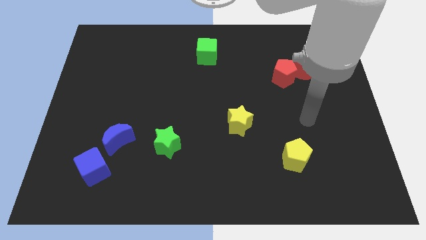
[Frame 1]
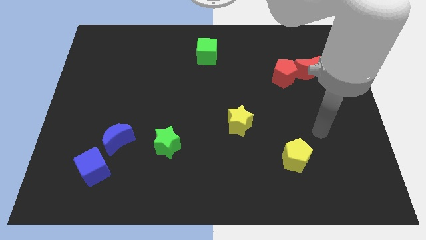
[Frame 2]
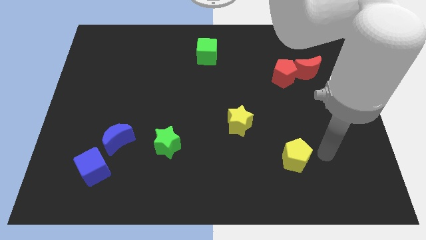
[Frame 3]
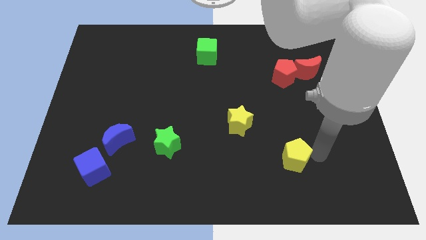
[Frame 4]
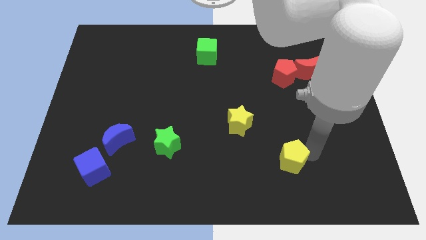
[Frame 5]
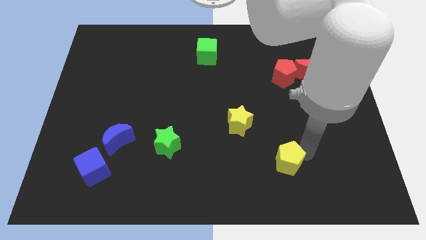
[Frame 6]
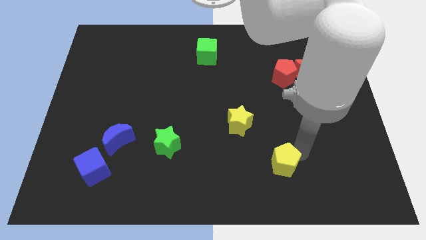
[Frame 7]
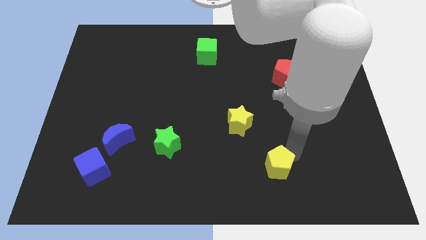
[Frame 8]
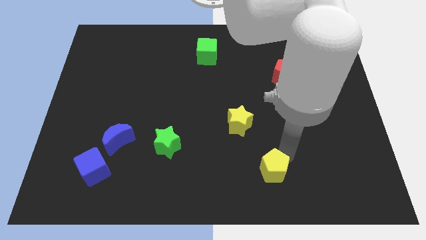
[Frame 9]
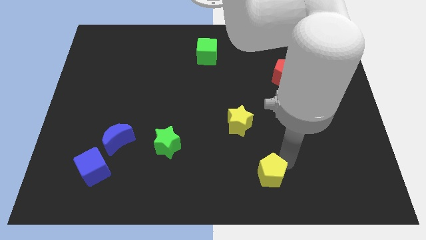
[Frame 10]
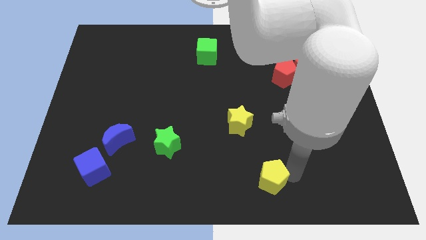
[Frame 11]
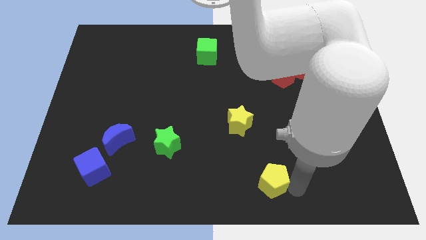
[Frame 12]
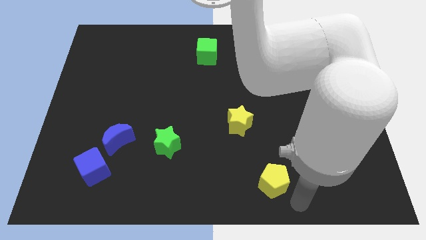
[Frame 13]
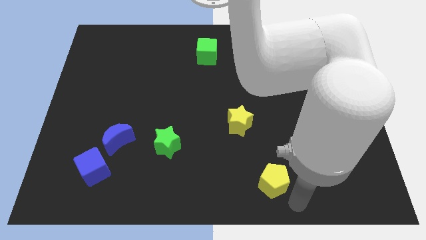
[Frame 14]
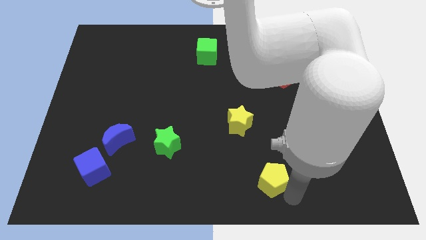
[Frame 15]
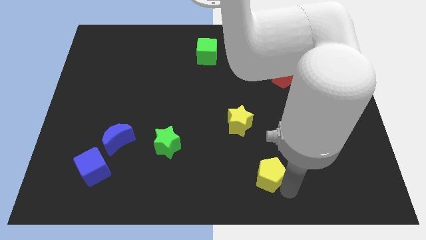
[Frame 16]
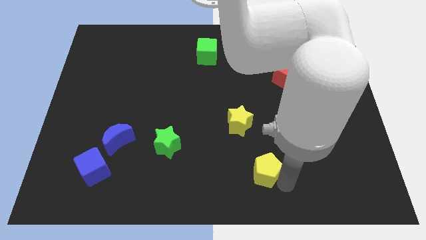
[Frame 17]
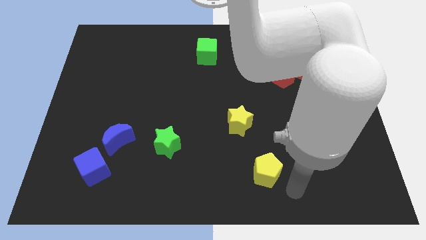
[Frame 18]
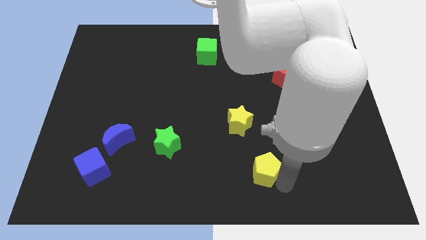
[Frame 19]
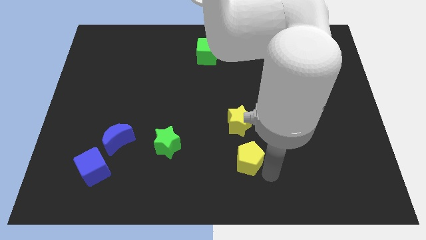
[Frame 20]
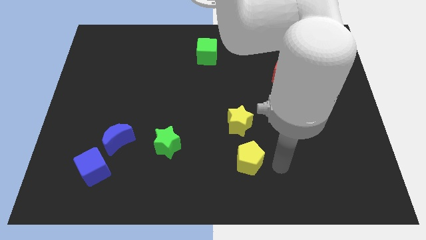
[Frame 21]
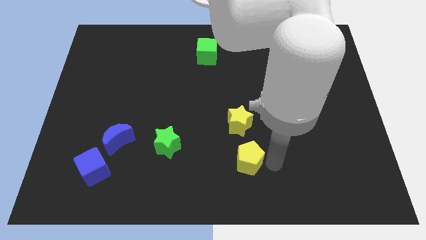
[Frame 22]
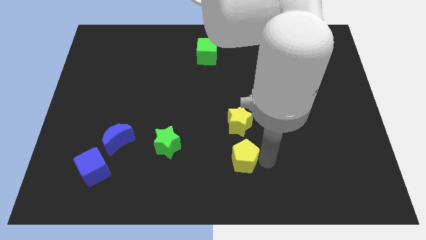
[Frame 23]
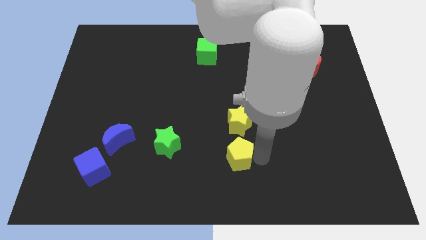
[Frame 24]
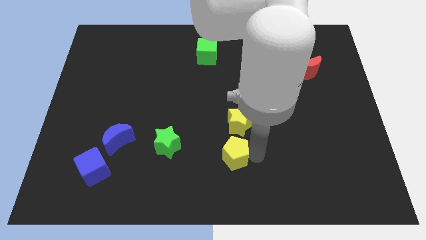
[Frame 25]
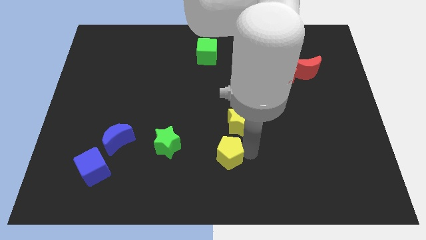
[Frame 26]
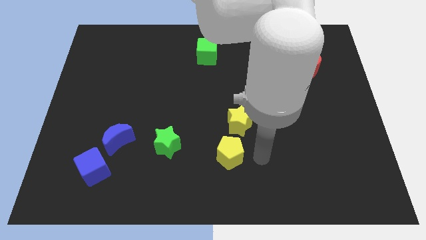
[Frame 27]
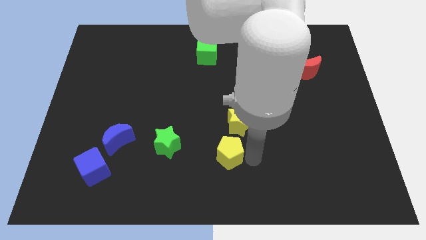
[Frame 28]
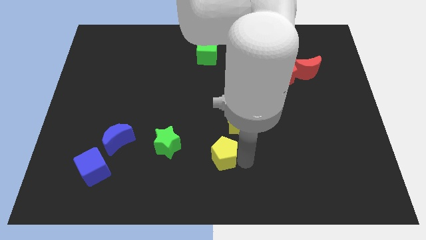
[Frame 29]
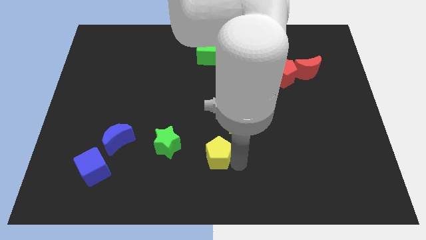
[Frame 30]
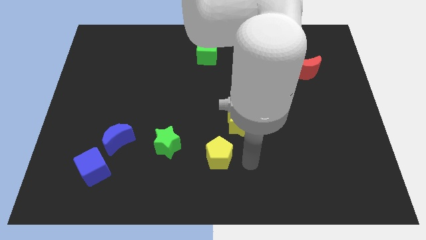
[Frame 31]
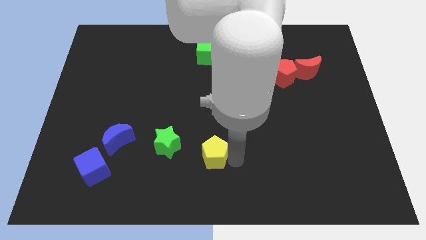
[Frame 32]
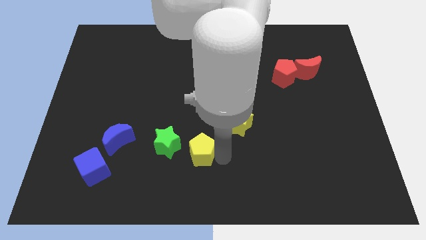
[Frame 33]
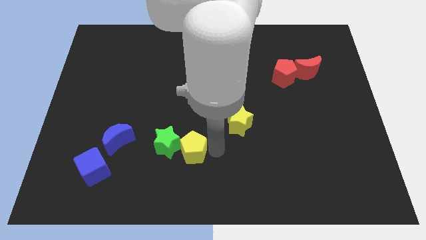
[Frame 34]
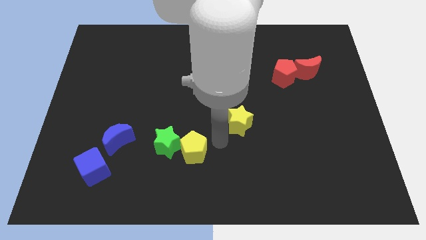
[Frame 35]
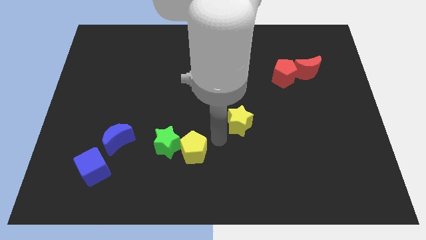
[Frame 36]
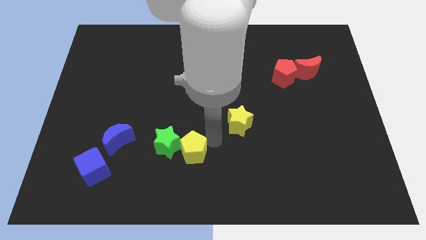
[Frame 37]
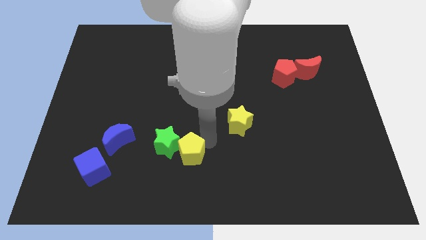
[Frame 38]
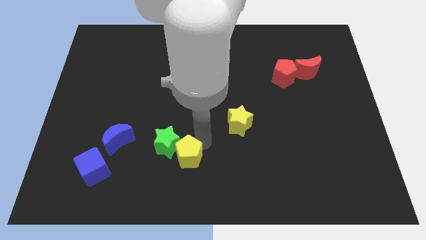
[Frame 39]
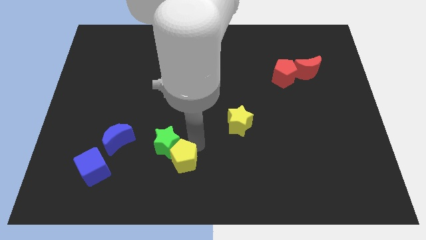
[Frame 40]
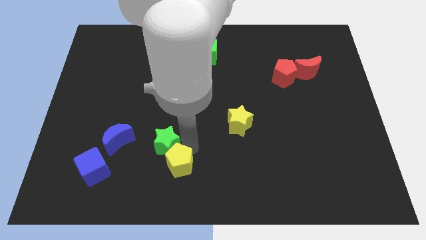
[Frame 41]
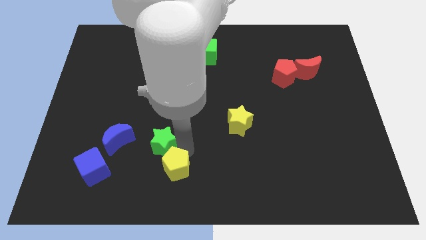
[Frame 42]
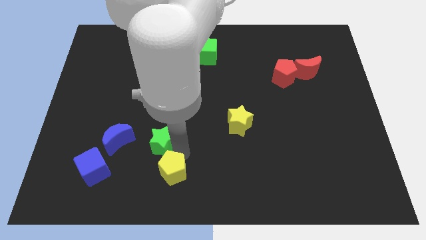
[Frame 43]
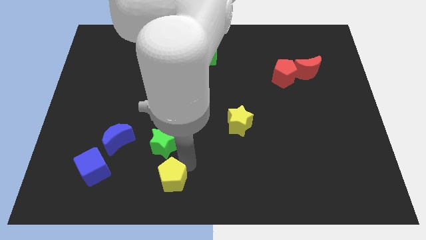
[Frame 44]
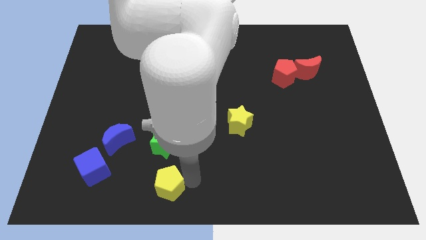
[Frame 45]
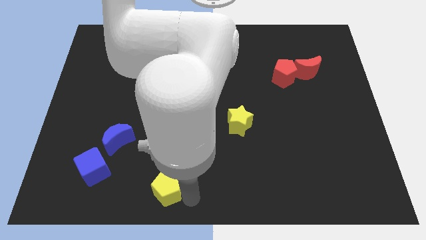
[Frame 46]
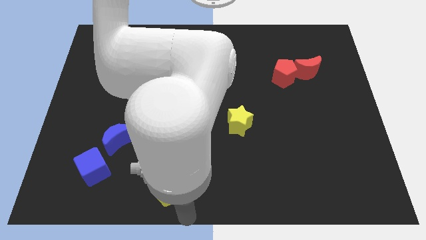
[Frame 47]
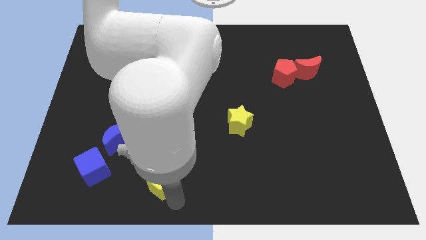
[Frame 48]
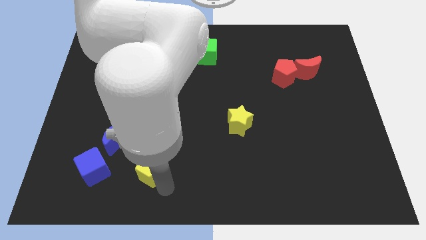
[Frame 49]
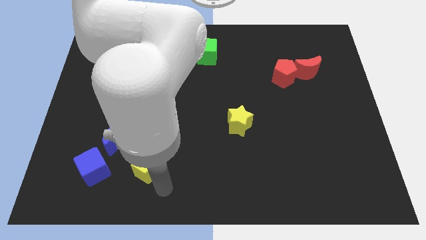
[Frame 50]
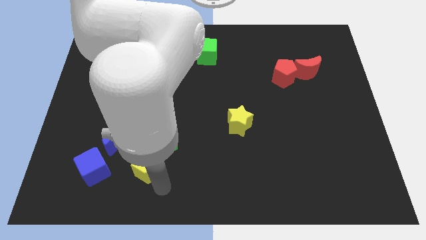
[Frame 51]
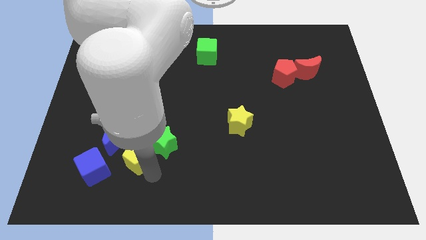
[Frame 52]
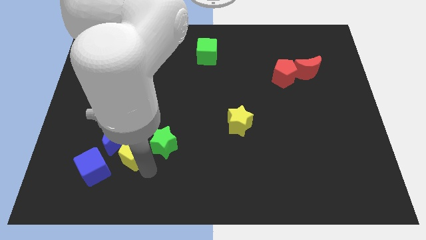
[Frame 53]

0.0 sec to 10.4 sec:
push the yellow pentagon close to the blue moon

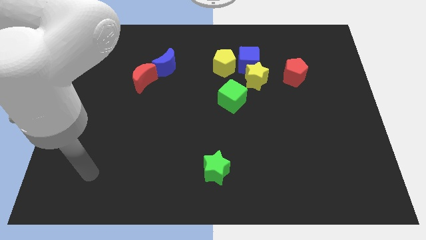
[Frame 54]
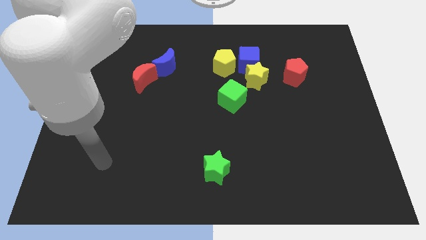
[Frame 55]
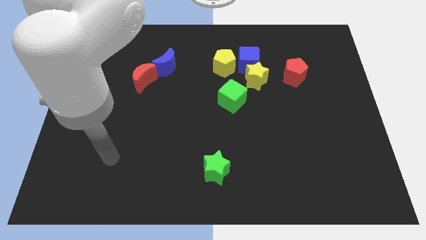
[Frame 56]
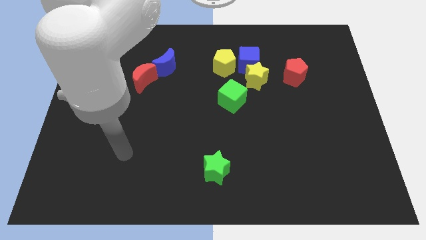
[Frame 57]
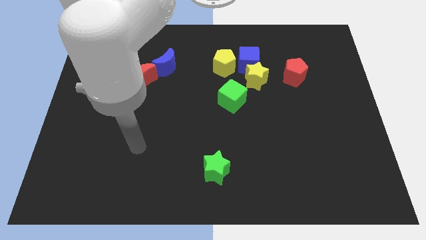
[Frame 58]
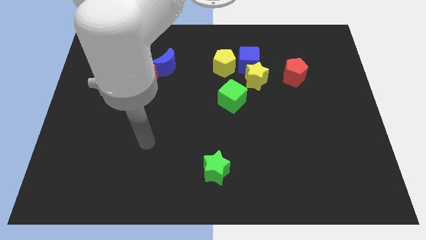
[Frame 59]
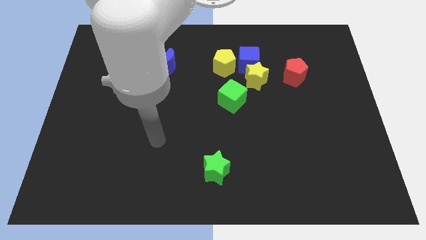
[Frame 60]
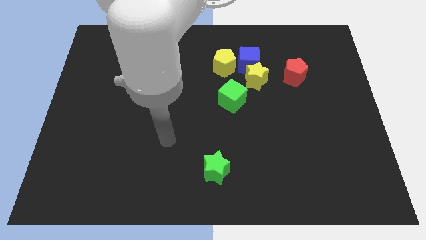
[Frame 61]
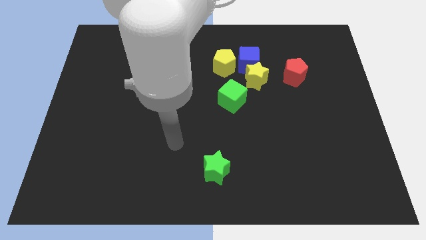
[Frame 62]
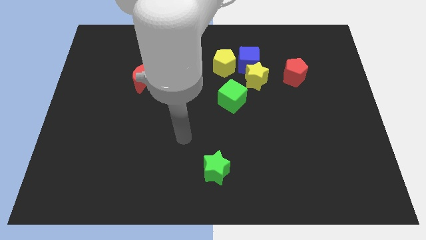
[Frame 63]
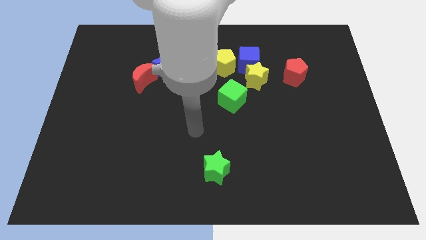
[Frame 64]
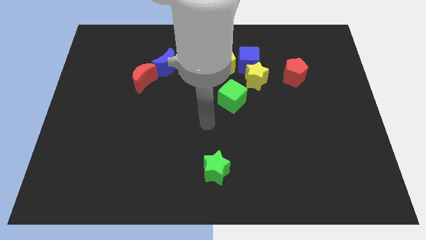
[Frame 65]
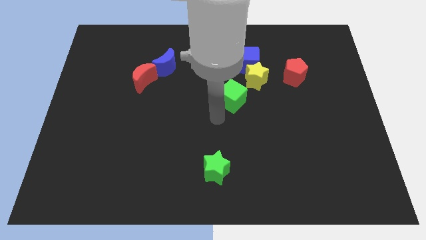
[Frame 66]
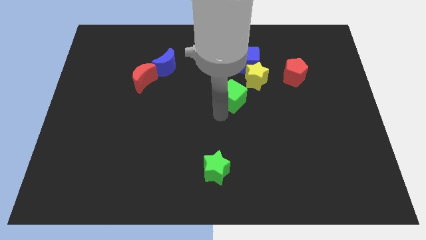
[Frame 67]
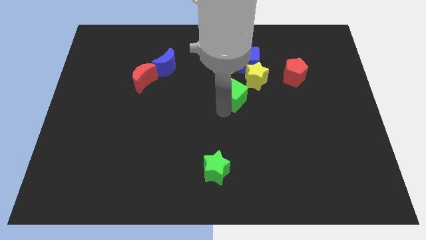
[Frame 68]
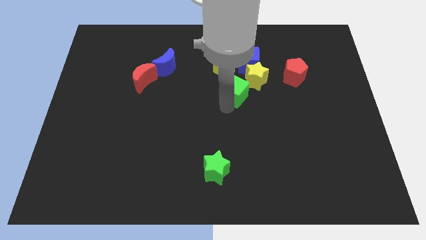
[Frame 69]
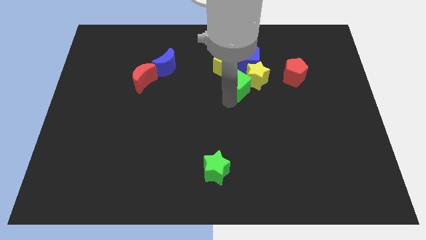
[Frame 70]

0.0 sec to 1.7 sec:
push the green cube close to the yellow star
